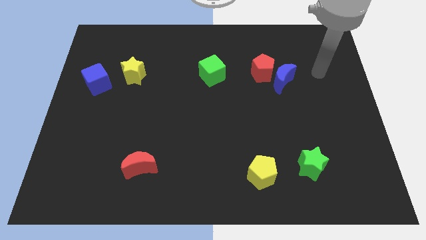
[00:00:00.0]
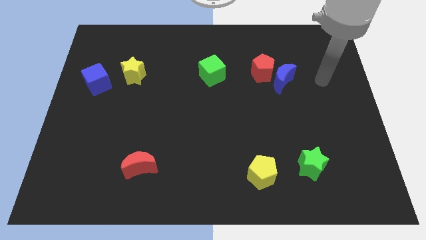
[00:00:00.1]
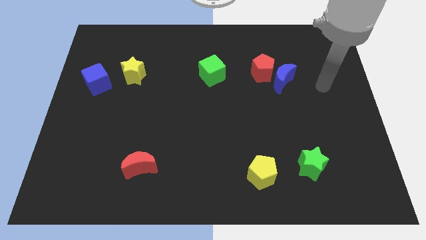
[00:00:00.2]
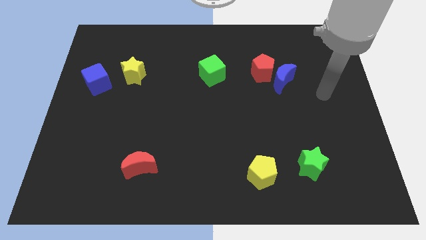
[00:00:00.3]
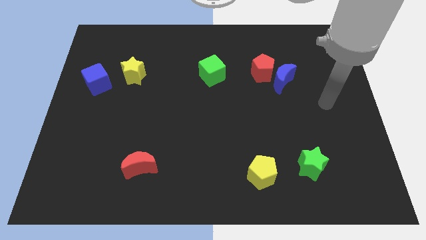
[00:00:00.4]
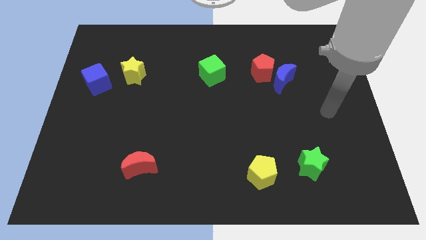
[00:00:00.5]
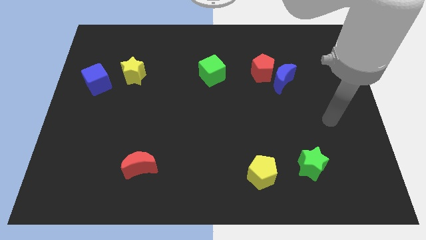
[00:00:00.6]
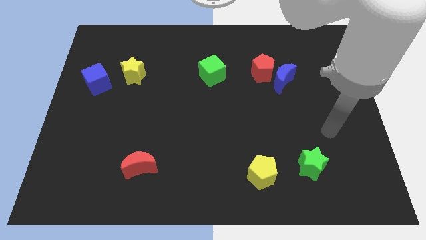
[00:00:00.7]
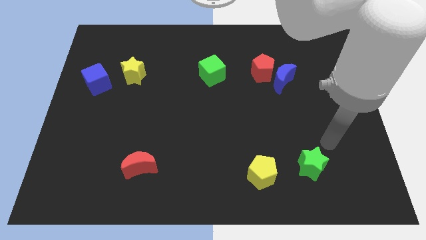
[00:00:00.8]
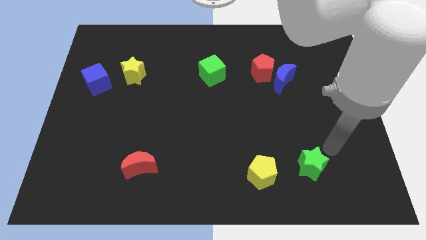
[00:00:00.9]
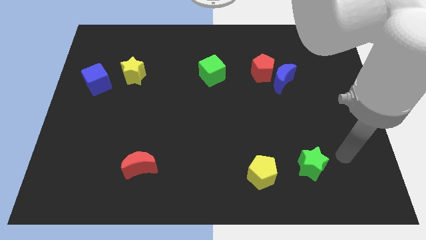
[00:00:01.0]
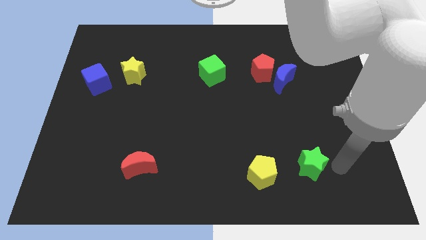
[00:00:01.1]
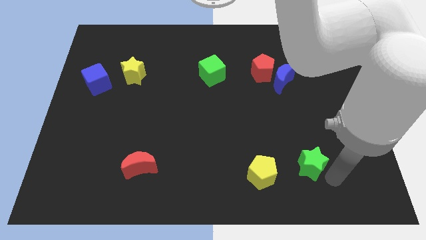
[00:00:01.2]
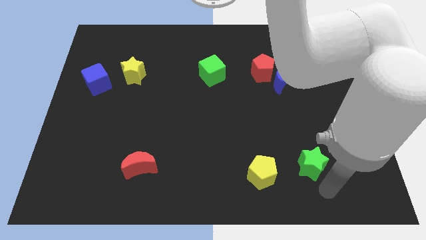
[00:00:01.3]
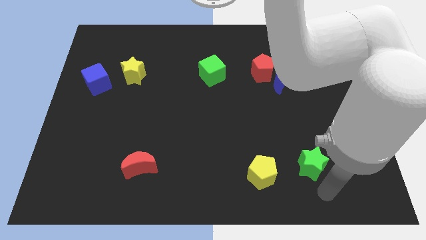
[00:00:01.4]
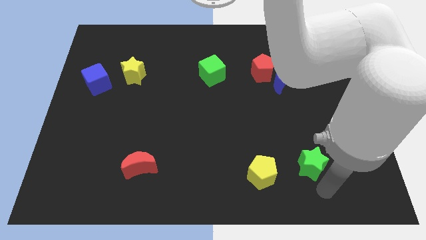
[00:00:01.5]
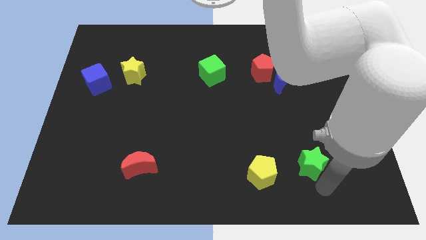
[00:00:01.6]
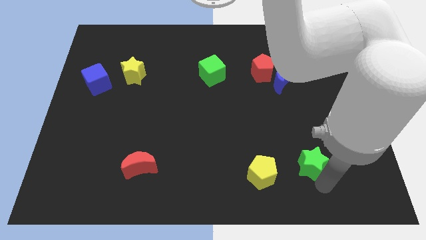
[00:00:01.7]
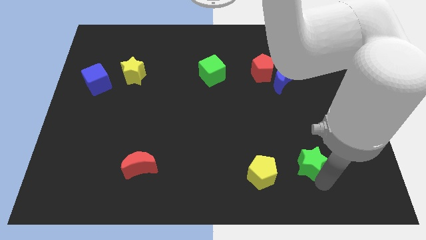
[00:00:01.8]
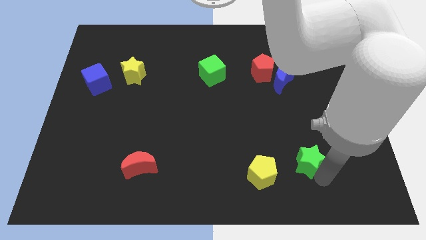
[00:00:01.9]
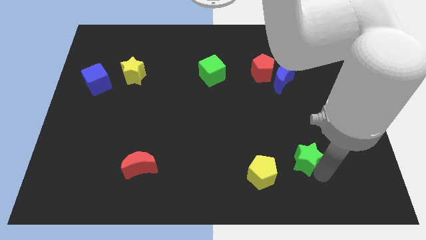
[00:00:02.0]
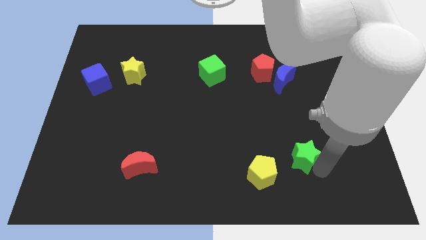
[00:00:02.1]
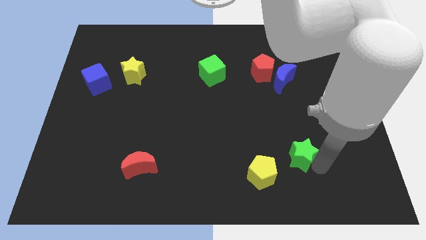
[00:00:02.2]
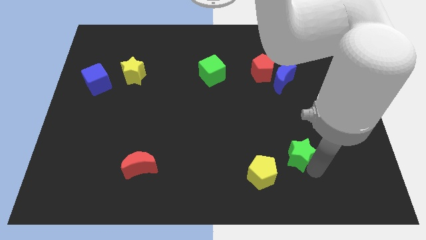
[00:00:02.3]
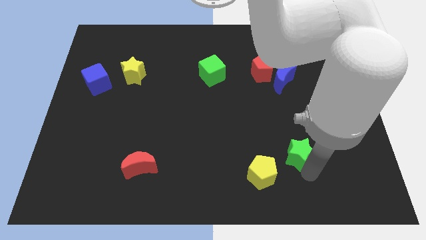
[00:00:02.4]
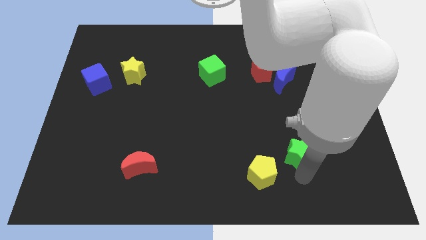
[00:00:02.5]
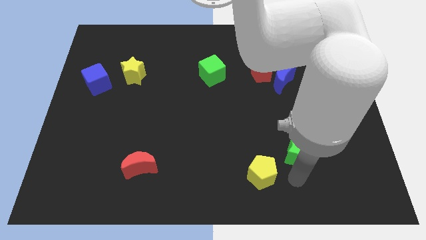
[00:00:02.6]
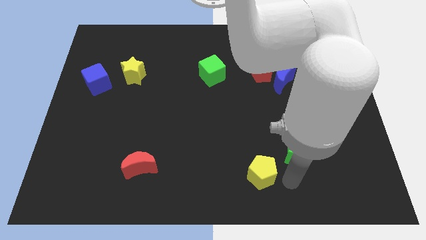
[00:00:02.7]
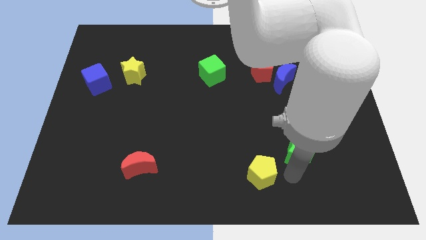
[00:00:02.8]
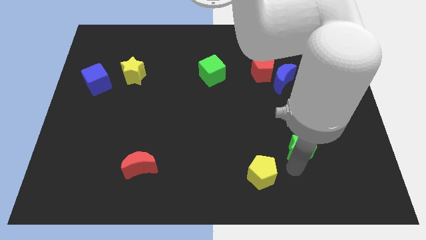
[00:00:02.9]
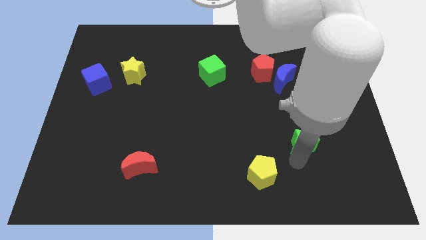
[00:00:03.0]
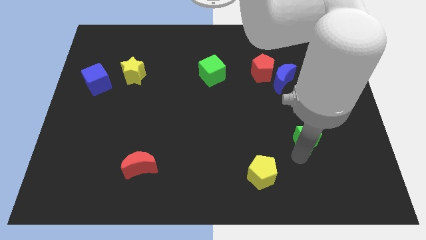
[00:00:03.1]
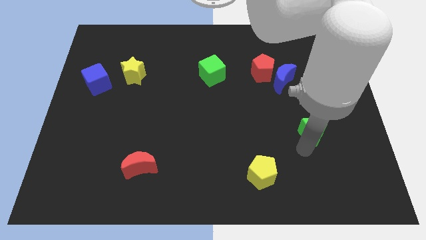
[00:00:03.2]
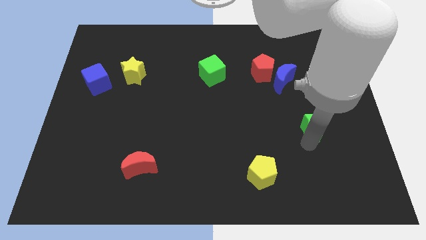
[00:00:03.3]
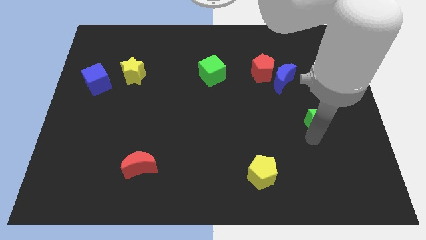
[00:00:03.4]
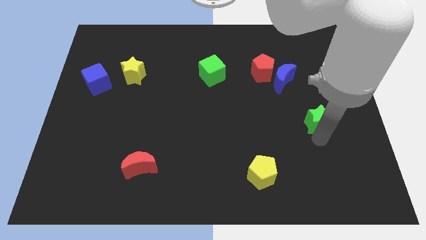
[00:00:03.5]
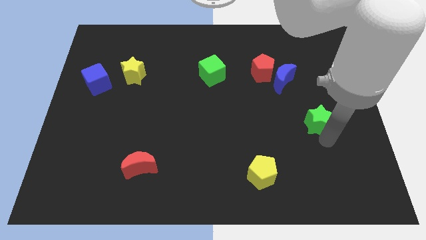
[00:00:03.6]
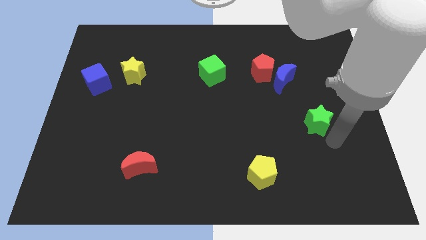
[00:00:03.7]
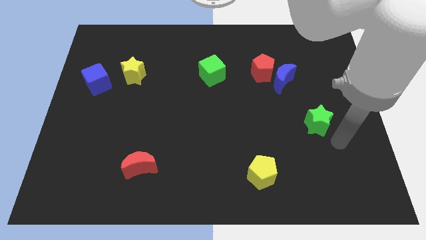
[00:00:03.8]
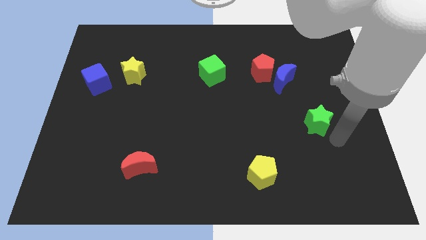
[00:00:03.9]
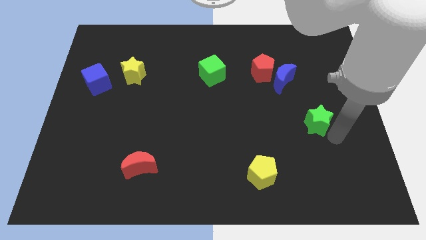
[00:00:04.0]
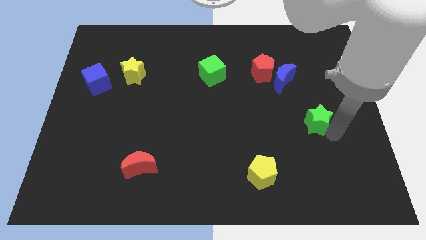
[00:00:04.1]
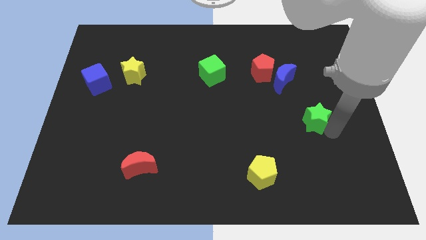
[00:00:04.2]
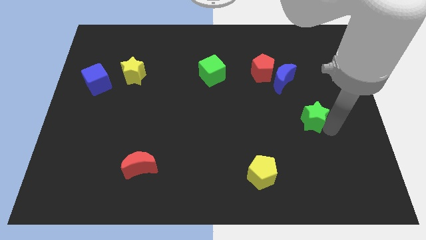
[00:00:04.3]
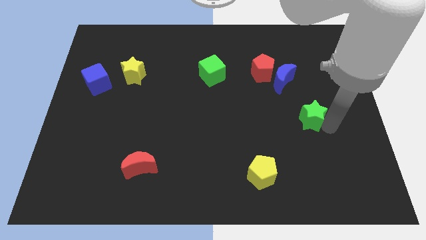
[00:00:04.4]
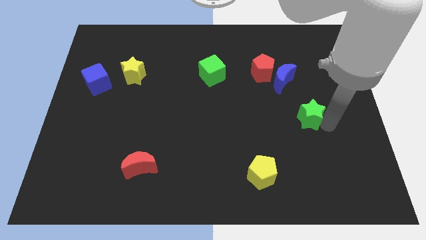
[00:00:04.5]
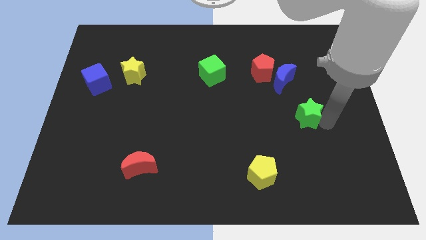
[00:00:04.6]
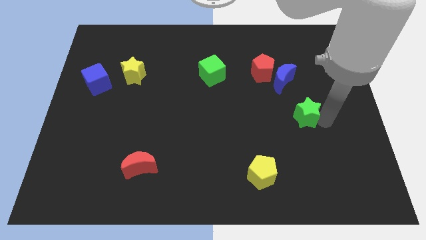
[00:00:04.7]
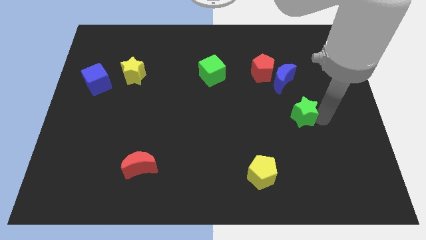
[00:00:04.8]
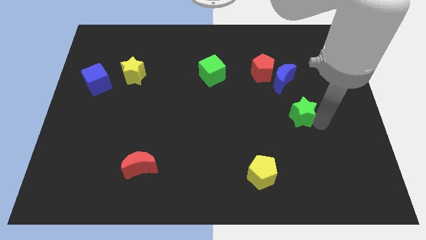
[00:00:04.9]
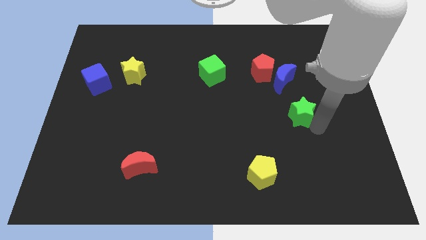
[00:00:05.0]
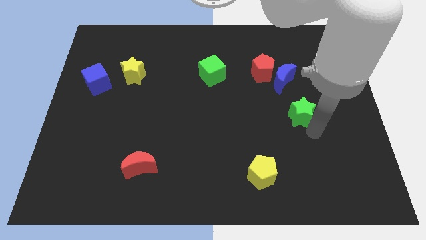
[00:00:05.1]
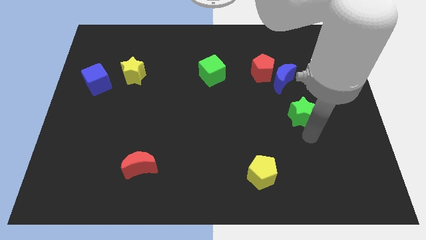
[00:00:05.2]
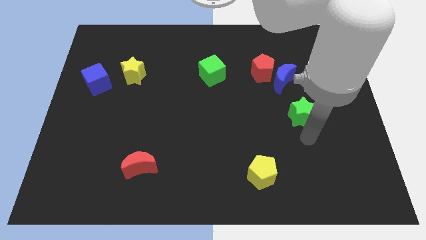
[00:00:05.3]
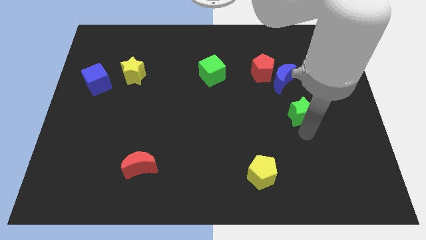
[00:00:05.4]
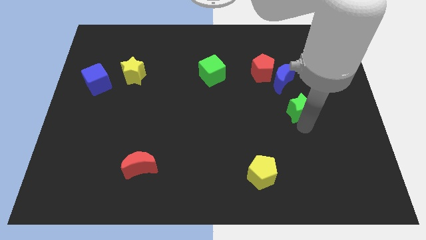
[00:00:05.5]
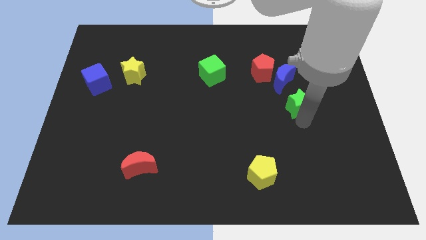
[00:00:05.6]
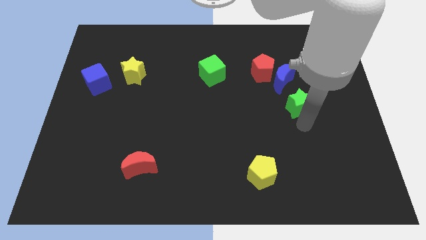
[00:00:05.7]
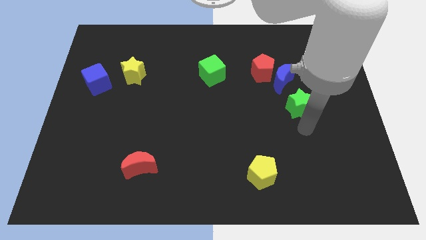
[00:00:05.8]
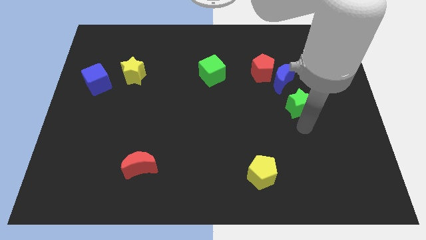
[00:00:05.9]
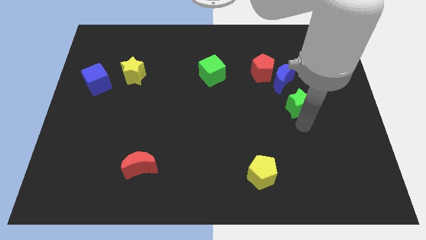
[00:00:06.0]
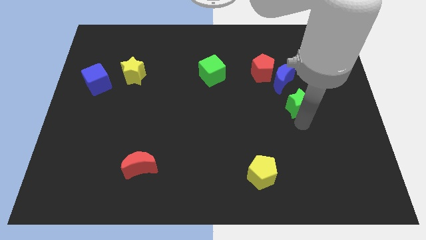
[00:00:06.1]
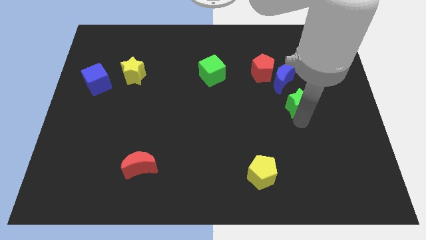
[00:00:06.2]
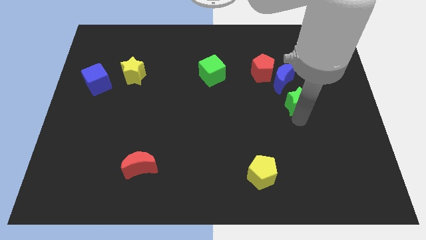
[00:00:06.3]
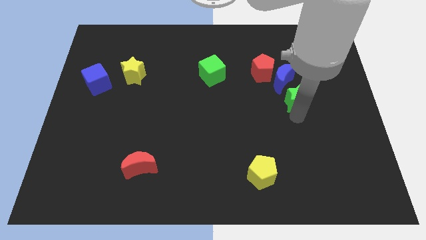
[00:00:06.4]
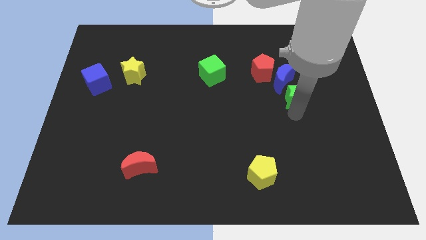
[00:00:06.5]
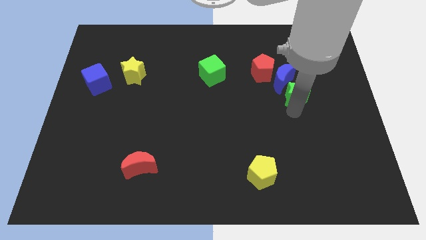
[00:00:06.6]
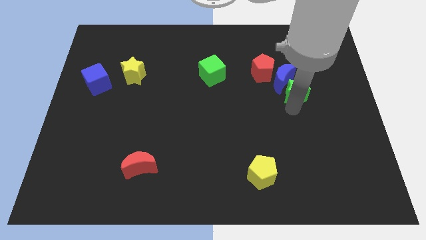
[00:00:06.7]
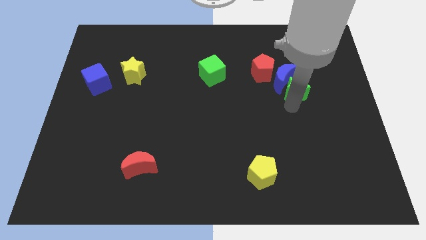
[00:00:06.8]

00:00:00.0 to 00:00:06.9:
slide the green star upwards

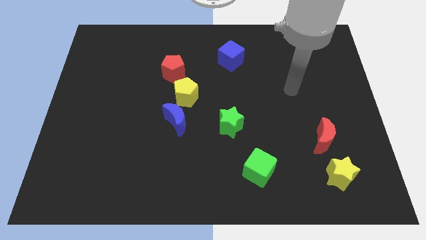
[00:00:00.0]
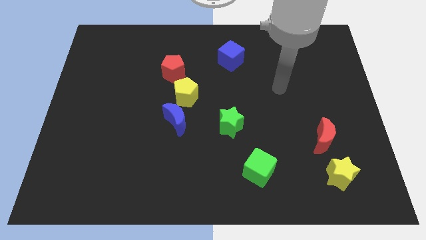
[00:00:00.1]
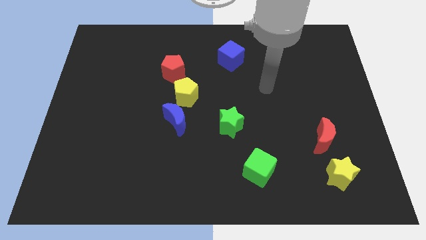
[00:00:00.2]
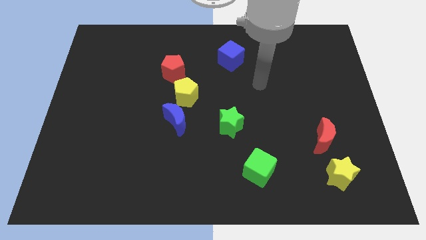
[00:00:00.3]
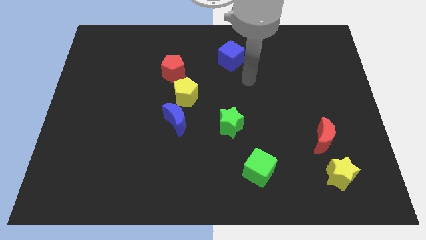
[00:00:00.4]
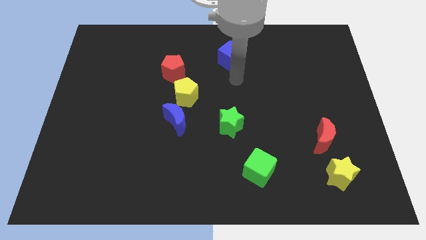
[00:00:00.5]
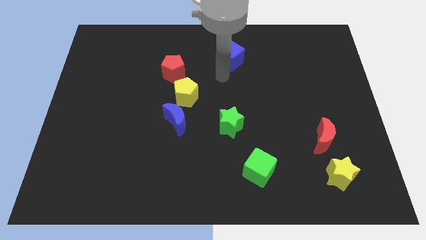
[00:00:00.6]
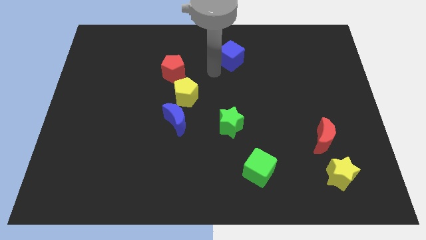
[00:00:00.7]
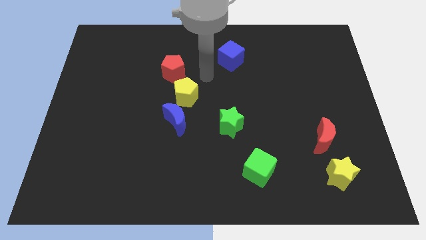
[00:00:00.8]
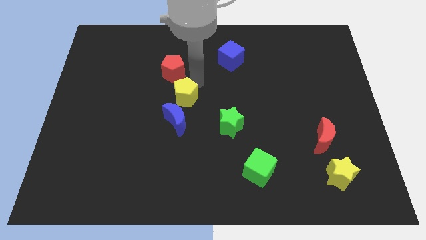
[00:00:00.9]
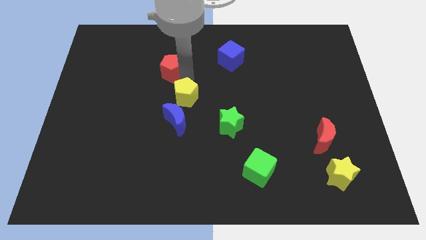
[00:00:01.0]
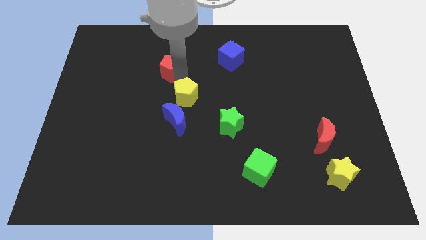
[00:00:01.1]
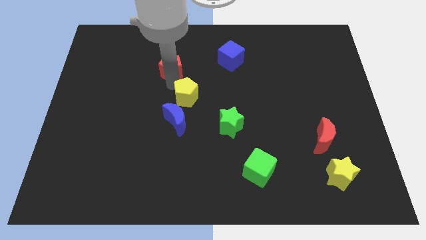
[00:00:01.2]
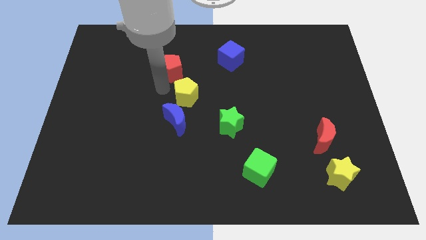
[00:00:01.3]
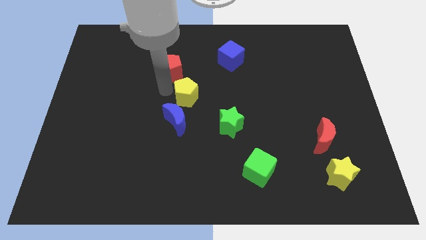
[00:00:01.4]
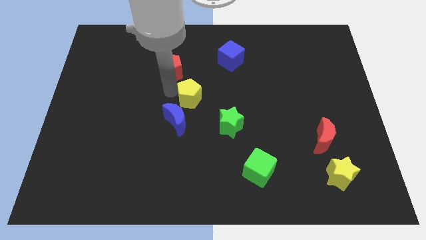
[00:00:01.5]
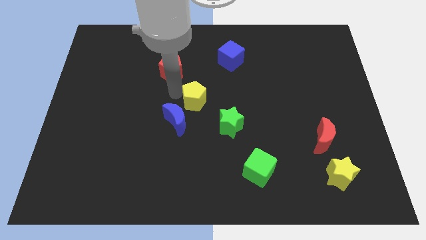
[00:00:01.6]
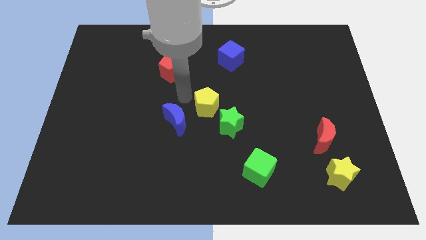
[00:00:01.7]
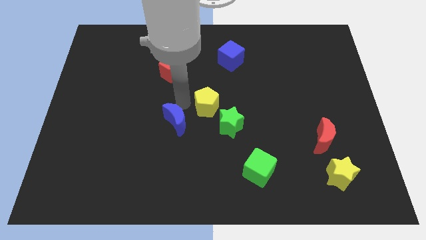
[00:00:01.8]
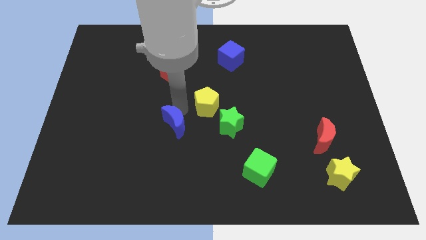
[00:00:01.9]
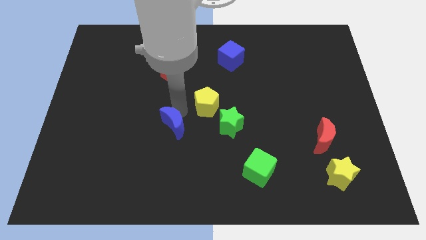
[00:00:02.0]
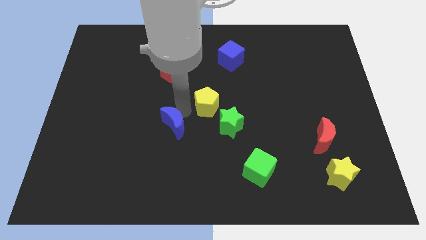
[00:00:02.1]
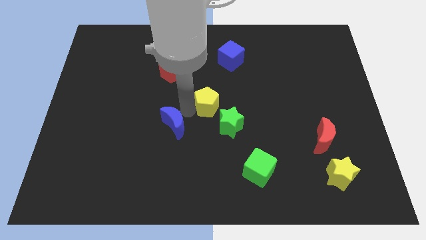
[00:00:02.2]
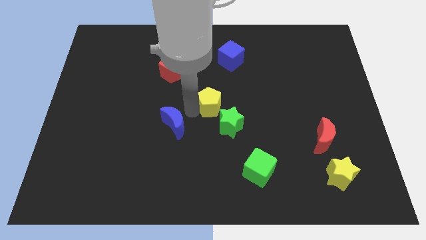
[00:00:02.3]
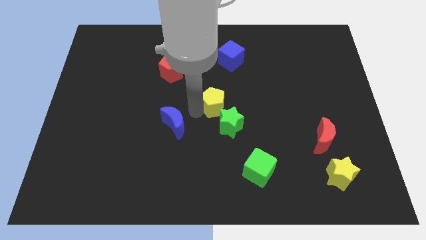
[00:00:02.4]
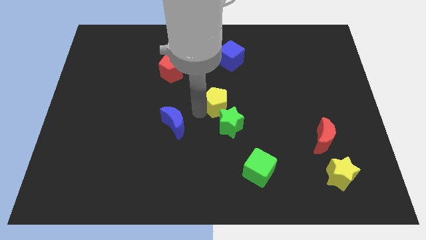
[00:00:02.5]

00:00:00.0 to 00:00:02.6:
slide the yellow pentagon a little to the right
